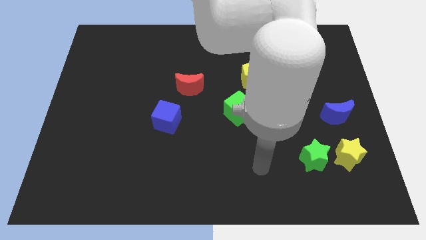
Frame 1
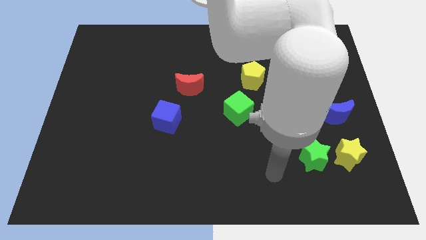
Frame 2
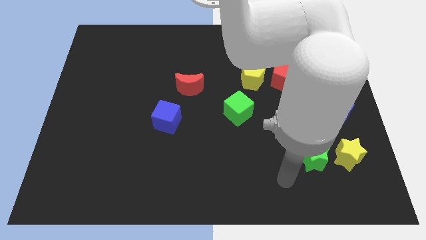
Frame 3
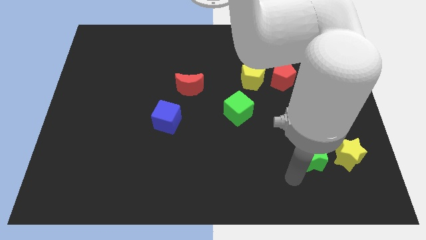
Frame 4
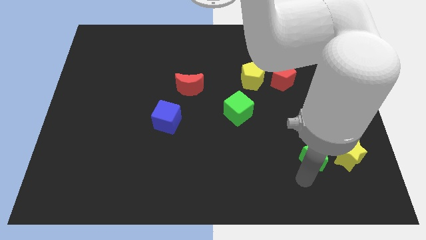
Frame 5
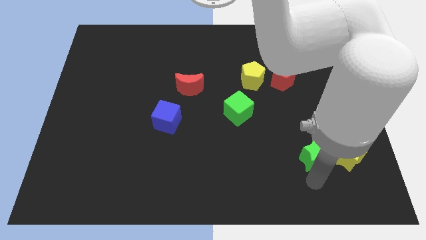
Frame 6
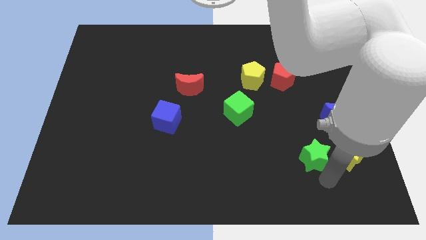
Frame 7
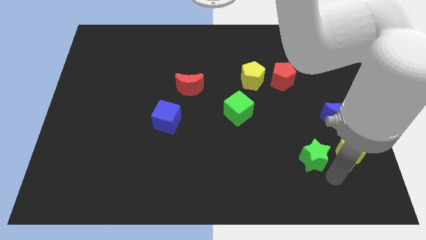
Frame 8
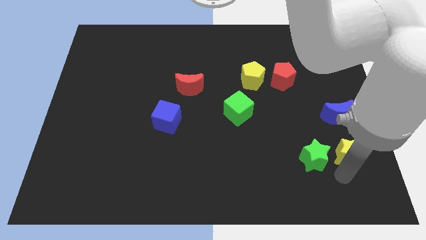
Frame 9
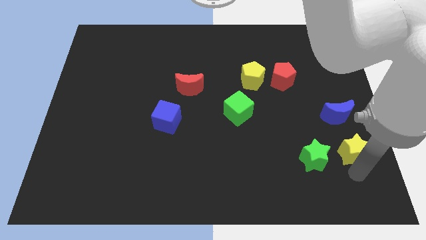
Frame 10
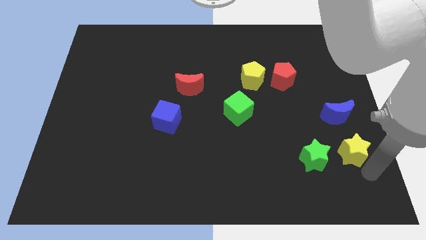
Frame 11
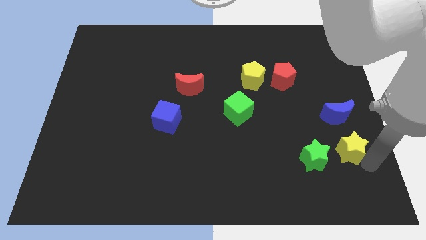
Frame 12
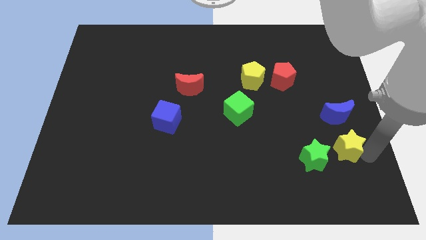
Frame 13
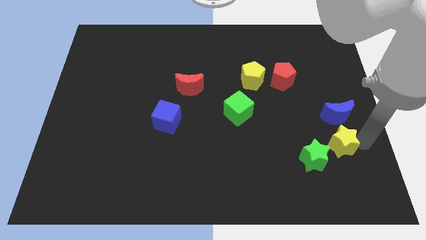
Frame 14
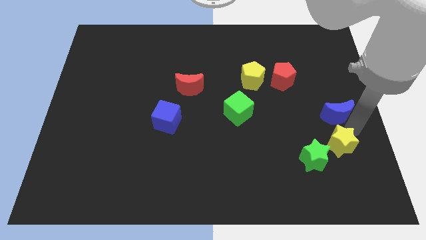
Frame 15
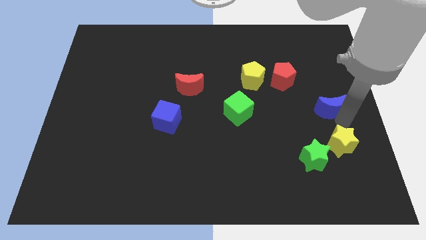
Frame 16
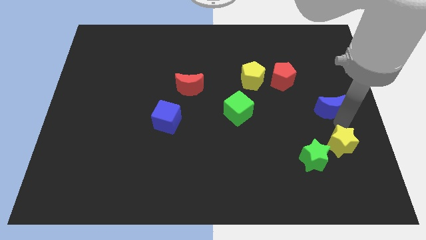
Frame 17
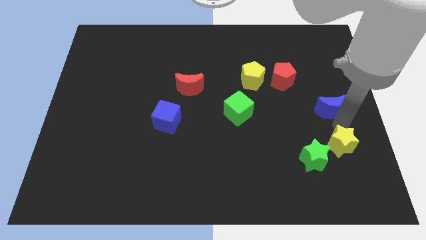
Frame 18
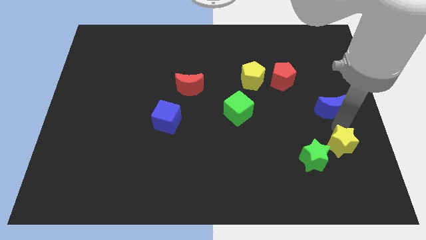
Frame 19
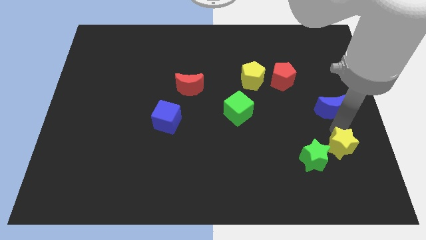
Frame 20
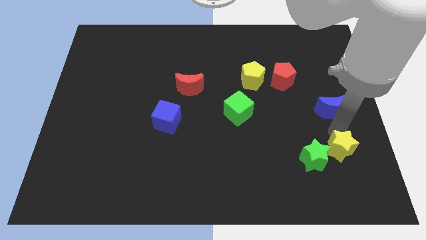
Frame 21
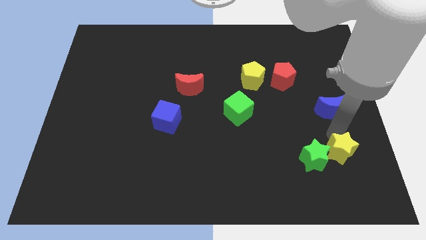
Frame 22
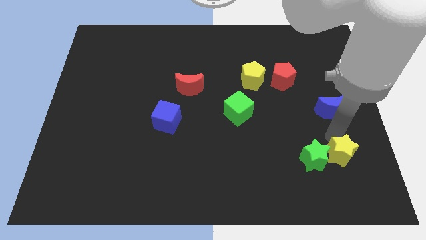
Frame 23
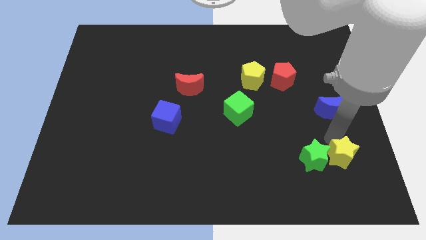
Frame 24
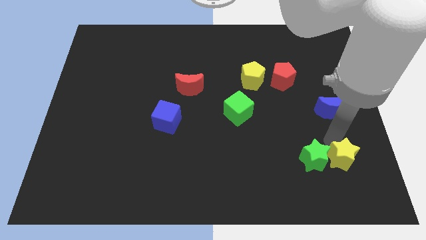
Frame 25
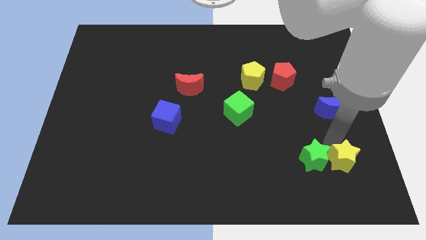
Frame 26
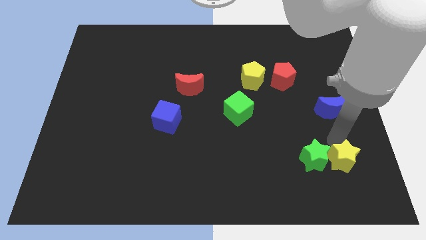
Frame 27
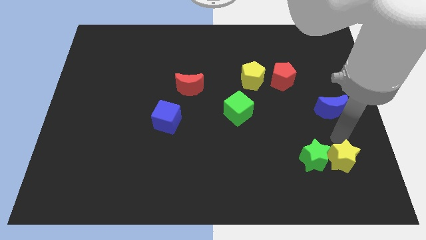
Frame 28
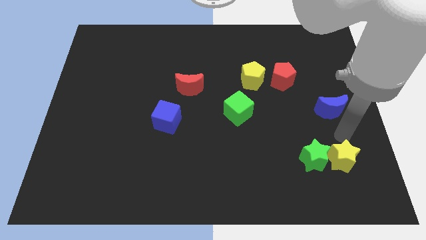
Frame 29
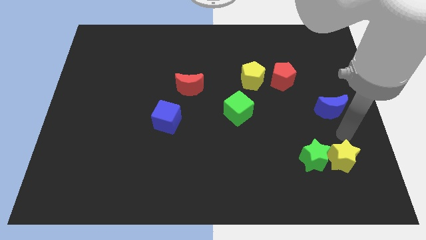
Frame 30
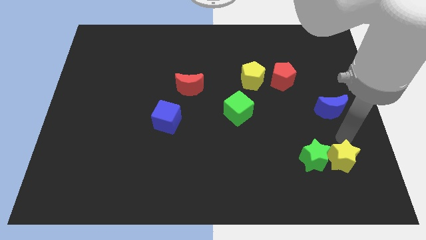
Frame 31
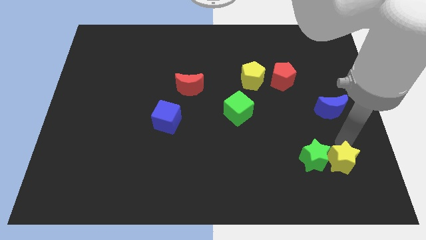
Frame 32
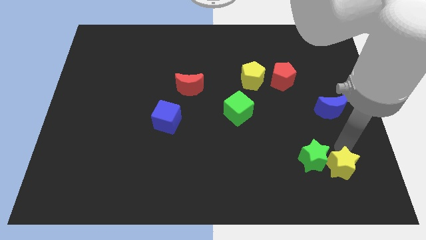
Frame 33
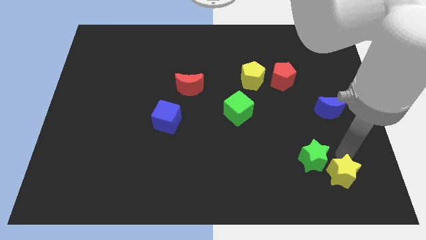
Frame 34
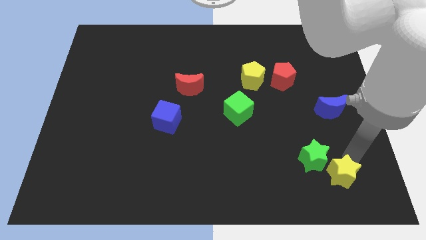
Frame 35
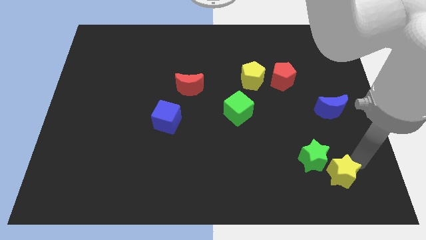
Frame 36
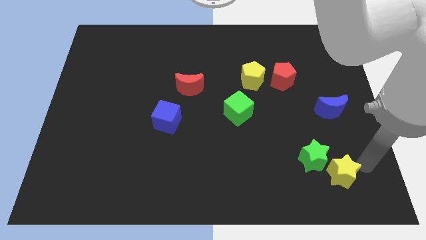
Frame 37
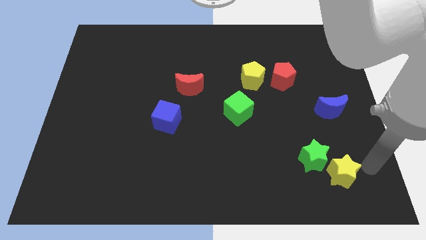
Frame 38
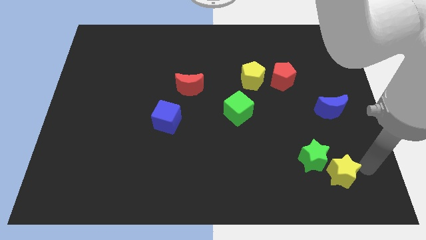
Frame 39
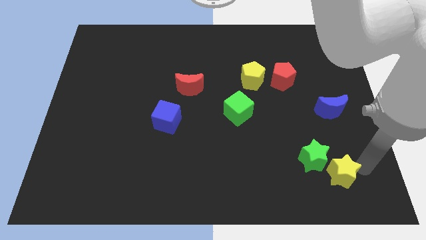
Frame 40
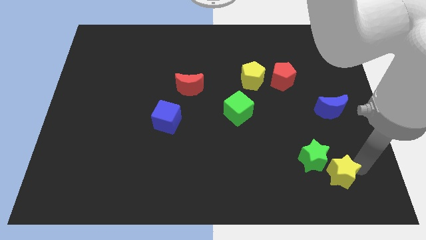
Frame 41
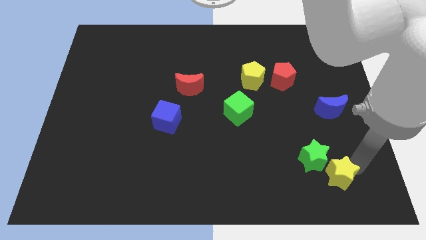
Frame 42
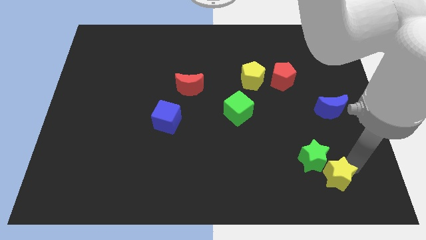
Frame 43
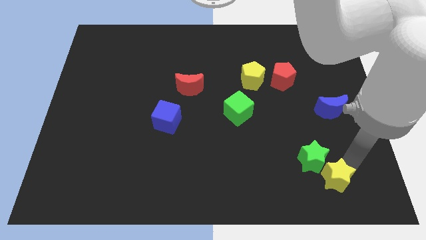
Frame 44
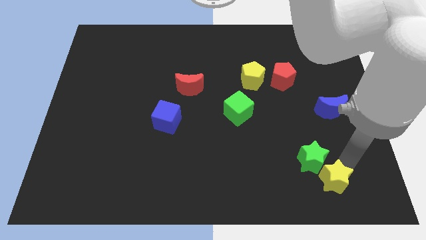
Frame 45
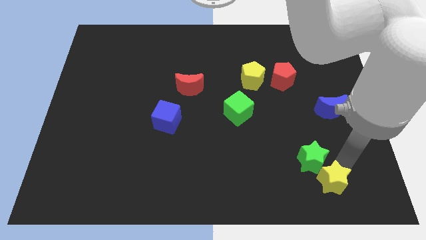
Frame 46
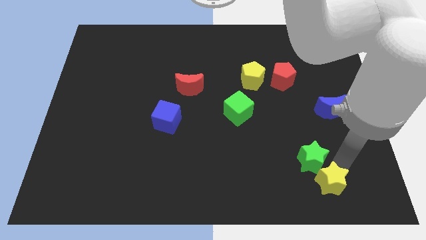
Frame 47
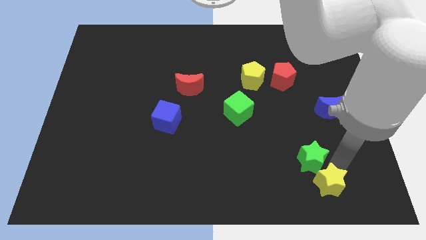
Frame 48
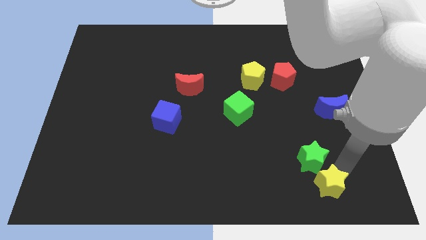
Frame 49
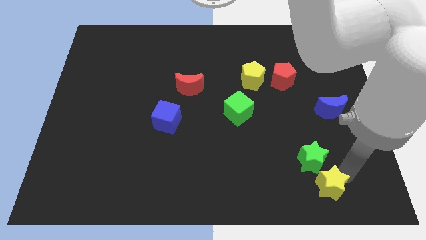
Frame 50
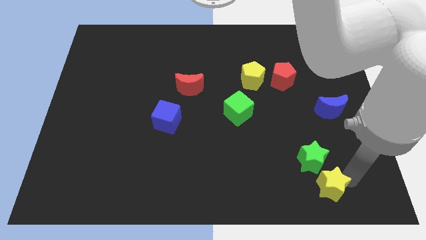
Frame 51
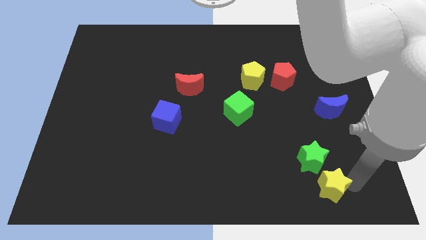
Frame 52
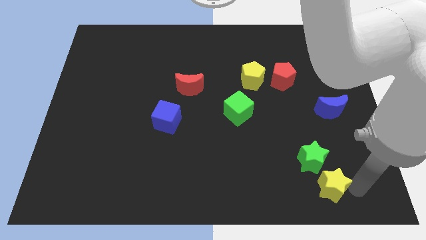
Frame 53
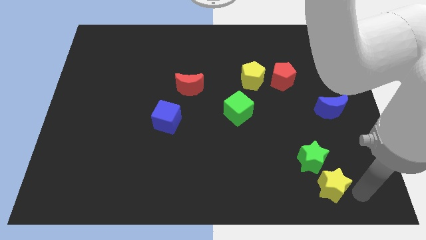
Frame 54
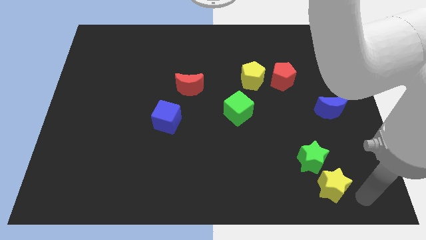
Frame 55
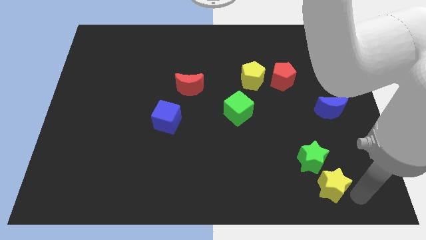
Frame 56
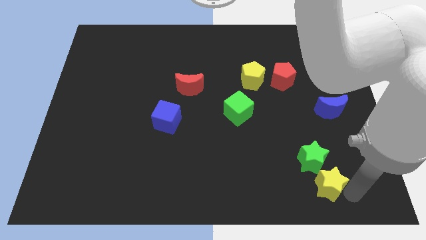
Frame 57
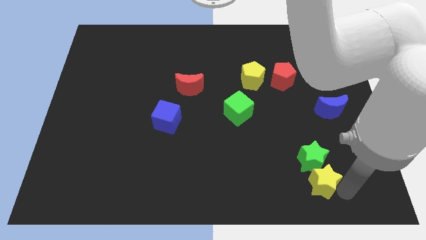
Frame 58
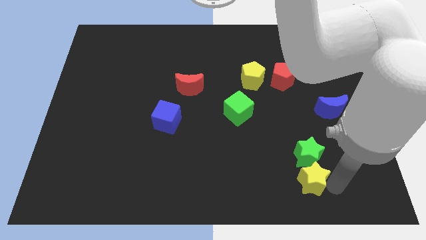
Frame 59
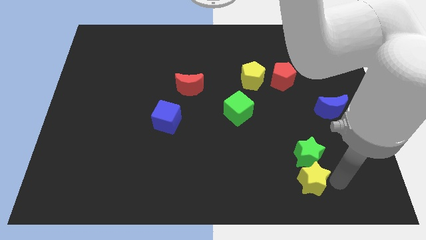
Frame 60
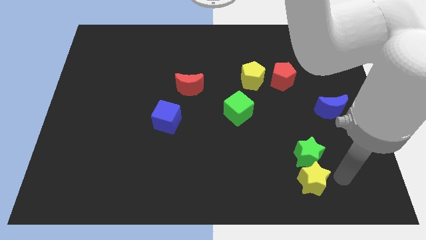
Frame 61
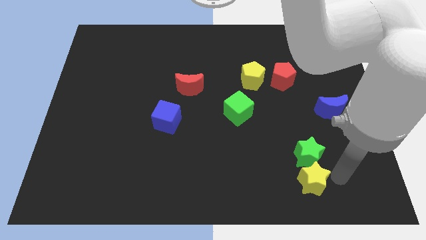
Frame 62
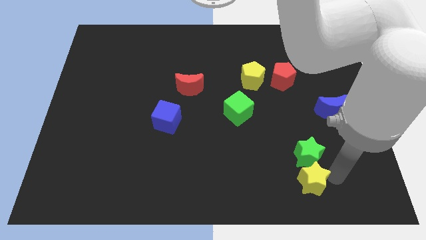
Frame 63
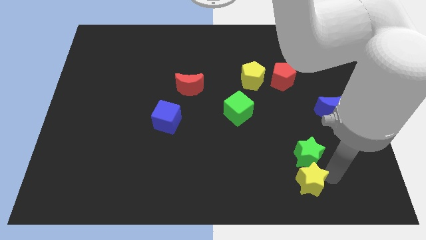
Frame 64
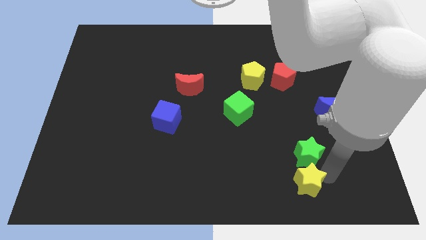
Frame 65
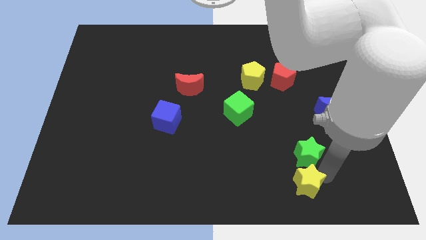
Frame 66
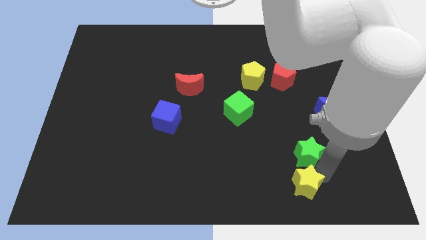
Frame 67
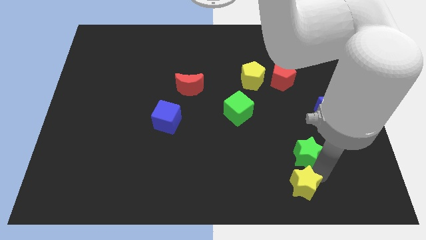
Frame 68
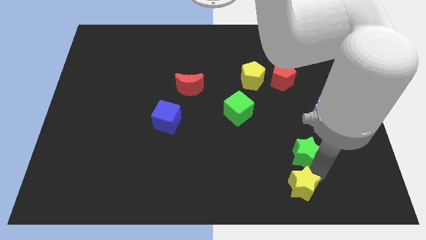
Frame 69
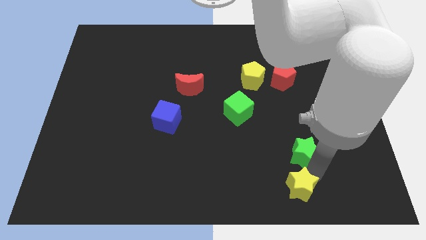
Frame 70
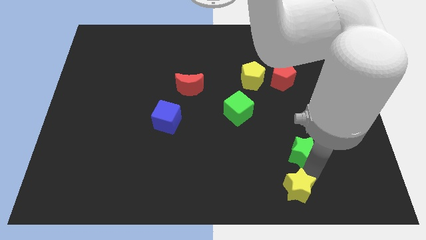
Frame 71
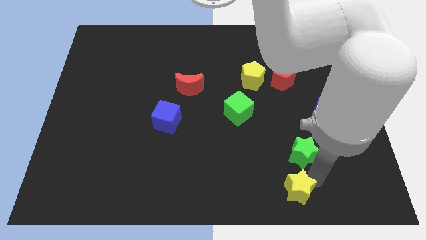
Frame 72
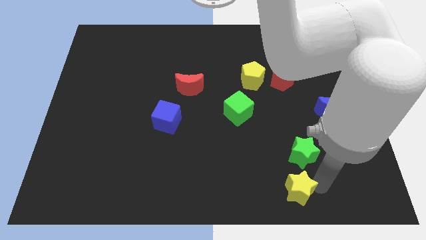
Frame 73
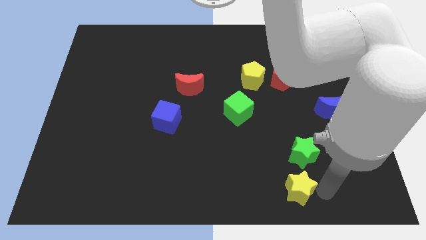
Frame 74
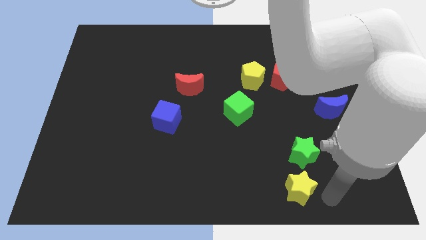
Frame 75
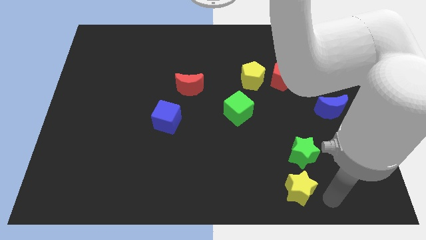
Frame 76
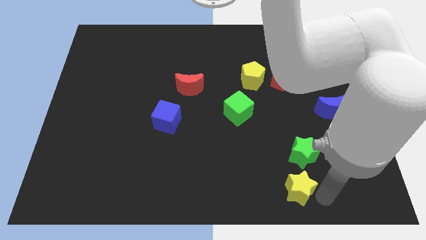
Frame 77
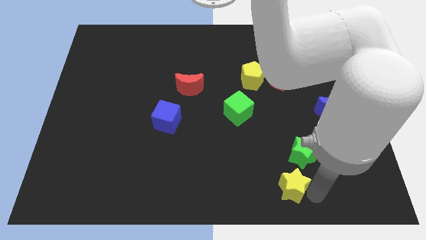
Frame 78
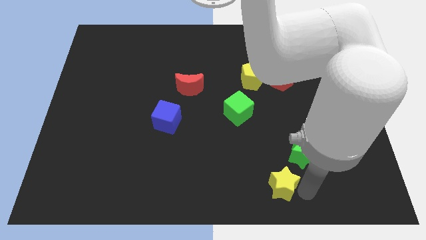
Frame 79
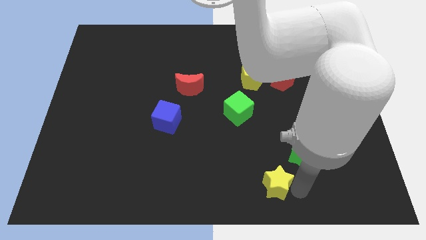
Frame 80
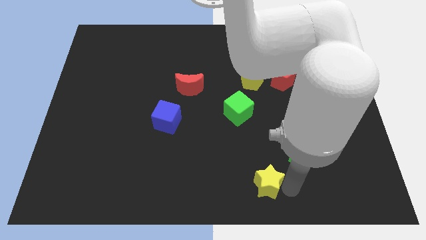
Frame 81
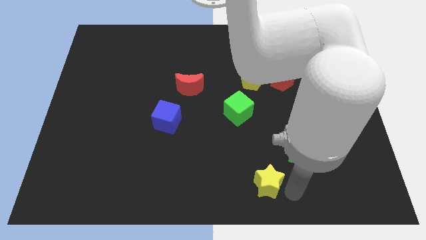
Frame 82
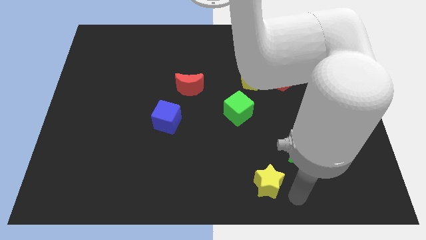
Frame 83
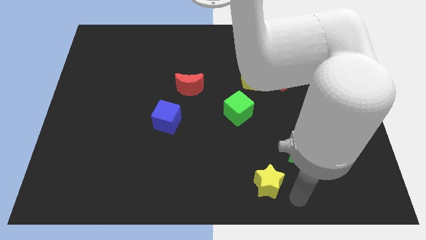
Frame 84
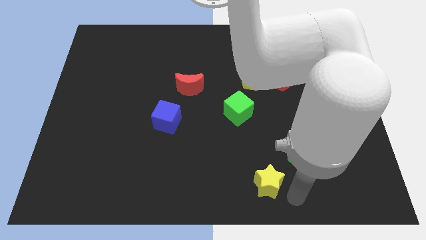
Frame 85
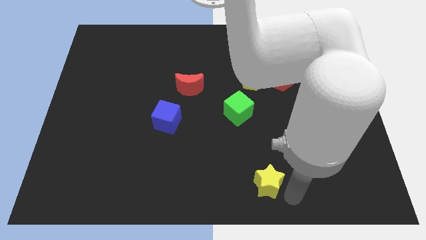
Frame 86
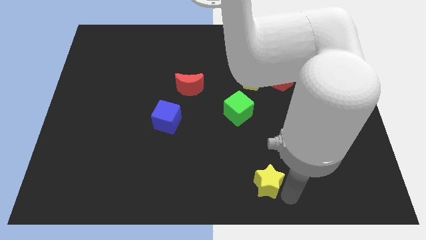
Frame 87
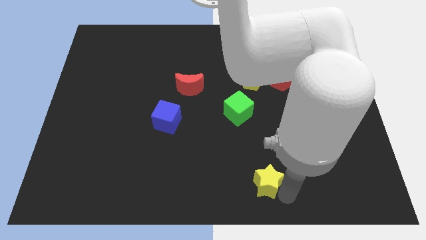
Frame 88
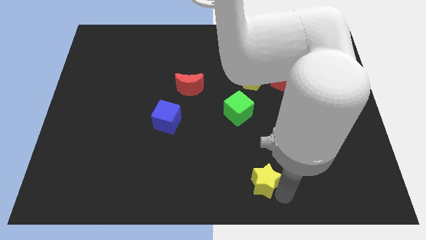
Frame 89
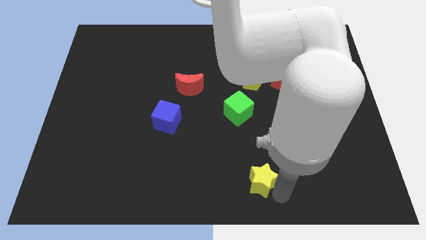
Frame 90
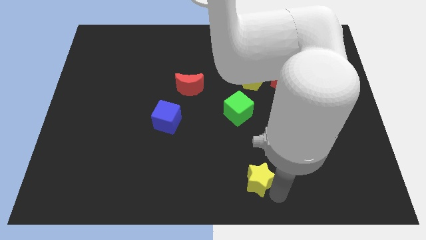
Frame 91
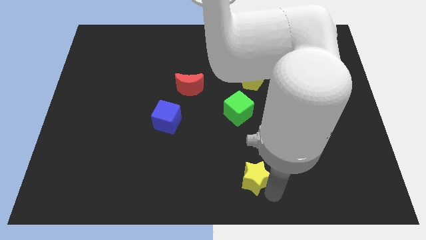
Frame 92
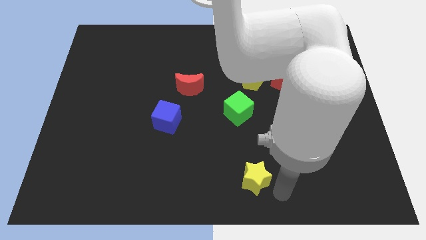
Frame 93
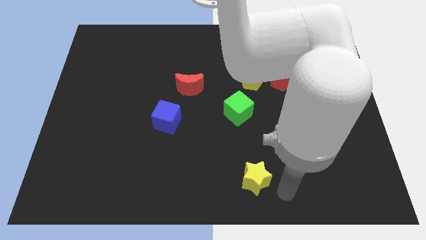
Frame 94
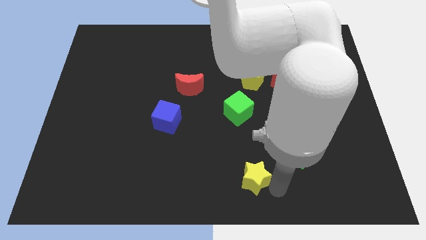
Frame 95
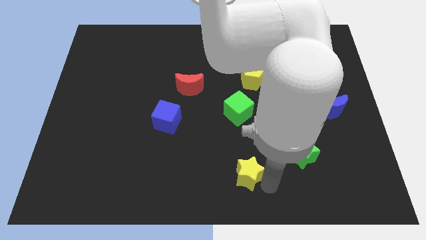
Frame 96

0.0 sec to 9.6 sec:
move the yellow star left
